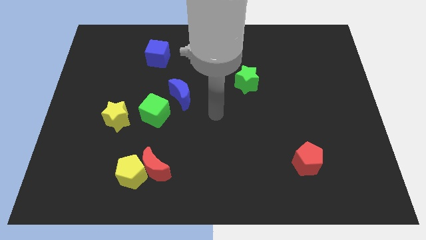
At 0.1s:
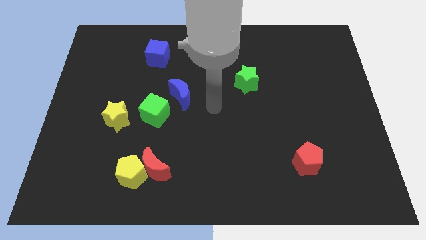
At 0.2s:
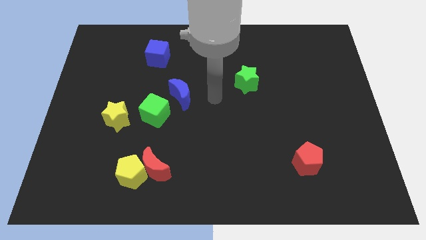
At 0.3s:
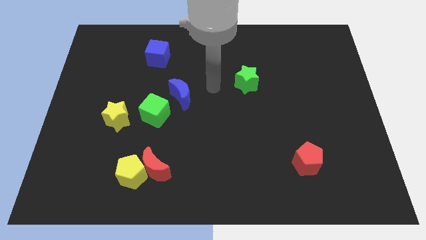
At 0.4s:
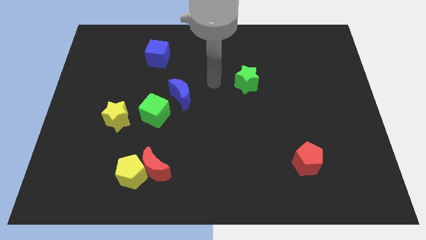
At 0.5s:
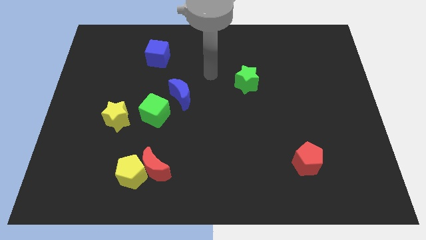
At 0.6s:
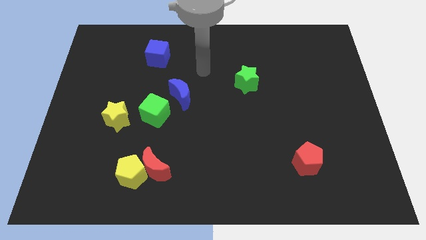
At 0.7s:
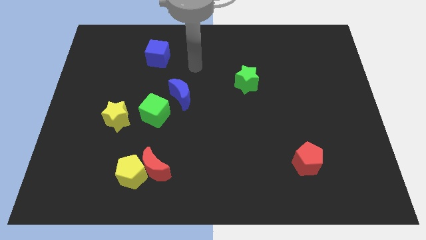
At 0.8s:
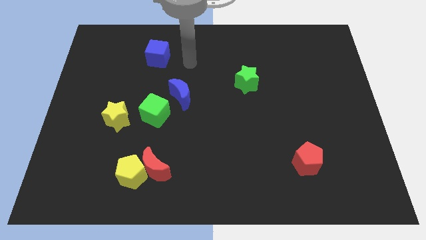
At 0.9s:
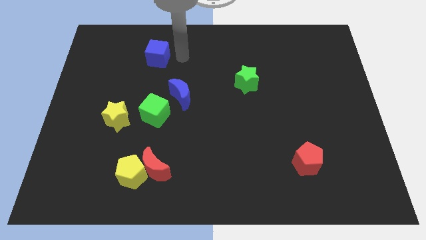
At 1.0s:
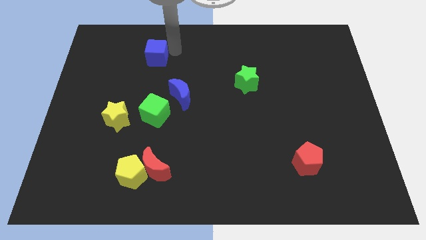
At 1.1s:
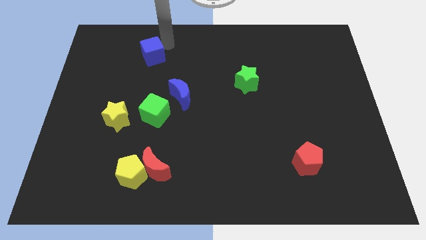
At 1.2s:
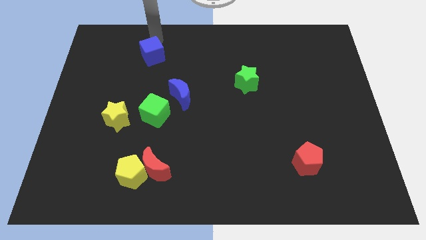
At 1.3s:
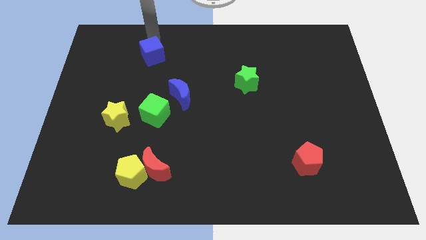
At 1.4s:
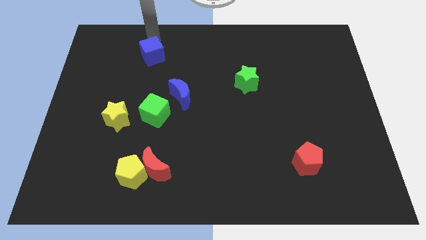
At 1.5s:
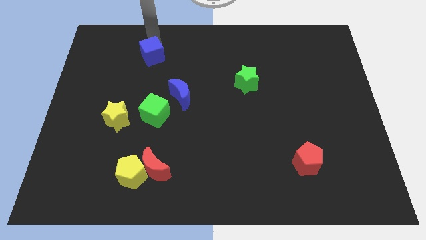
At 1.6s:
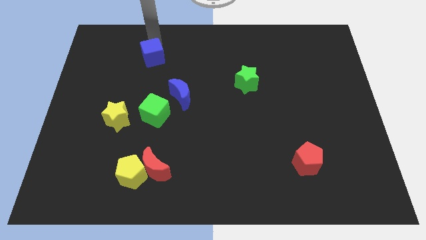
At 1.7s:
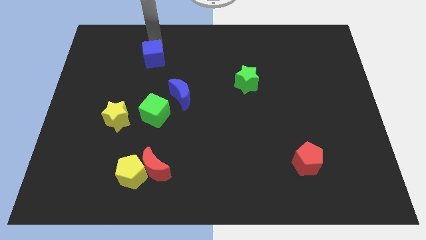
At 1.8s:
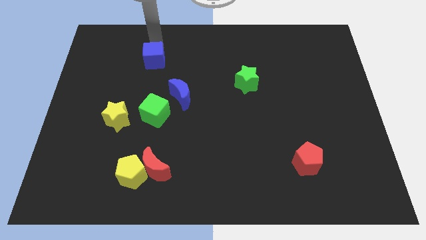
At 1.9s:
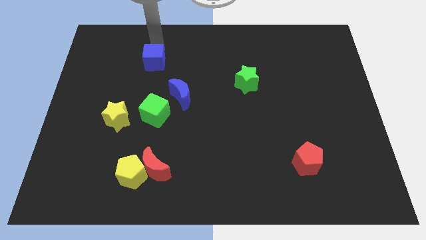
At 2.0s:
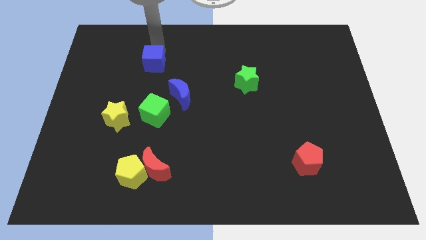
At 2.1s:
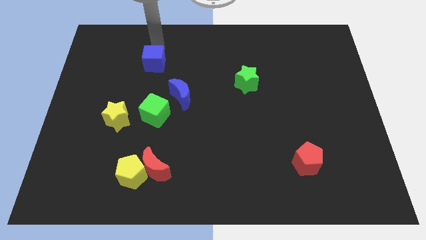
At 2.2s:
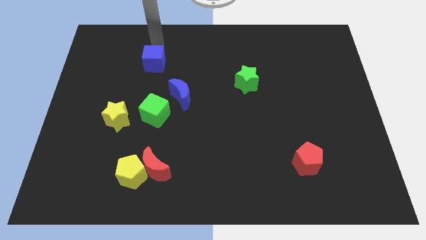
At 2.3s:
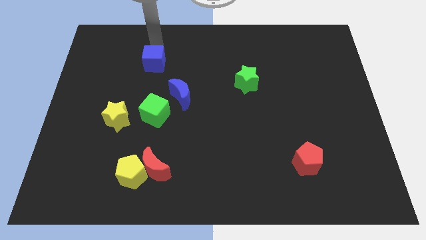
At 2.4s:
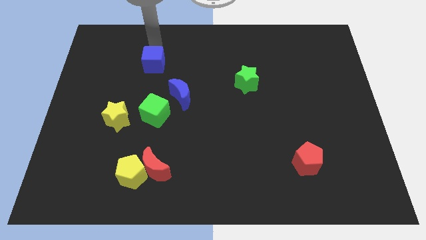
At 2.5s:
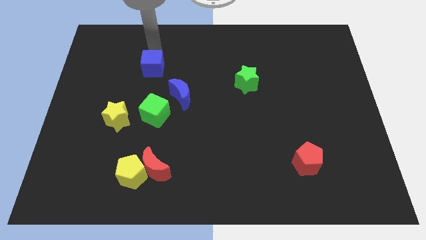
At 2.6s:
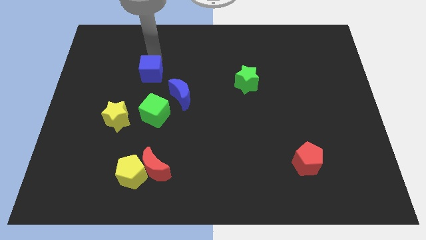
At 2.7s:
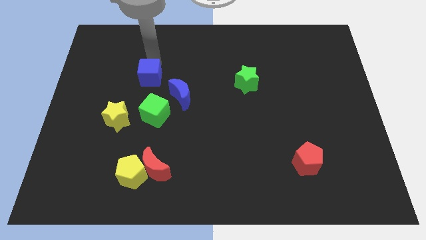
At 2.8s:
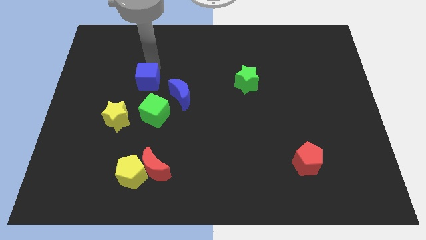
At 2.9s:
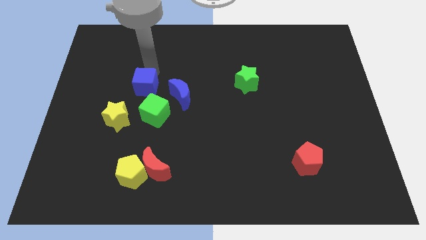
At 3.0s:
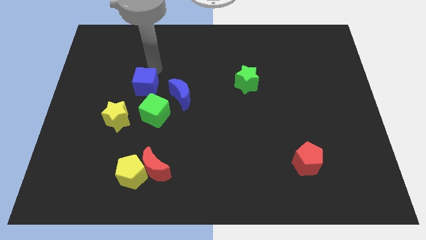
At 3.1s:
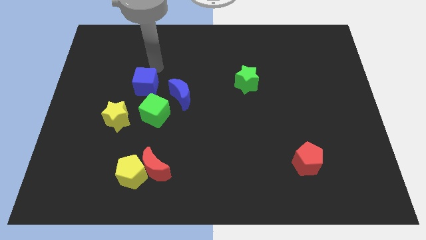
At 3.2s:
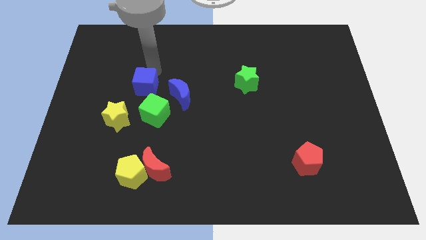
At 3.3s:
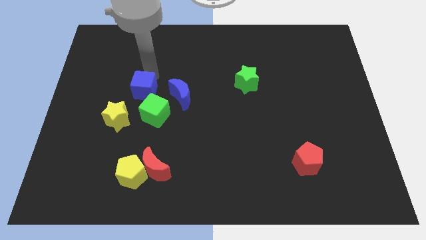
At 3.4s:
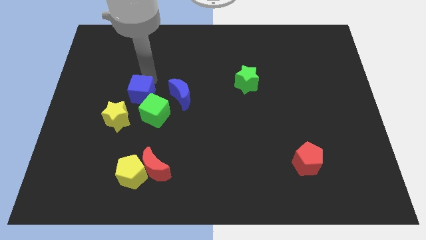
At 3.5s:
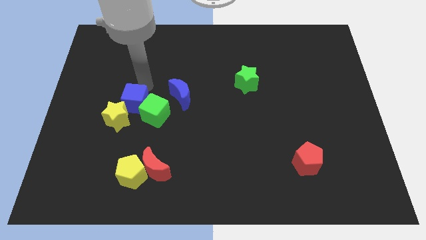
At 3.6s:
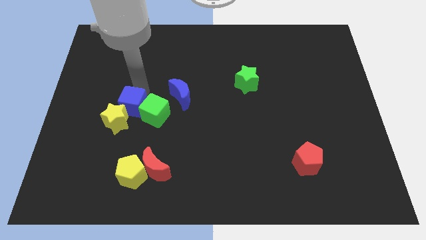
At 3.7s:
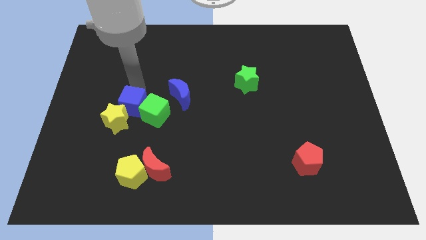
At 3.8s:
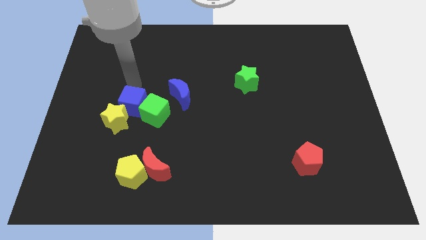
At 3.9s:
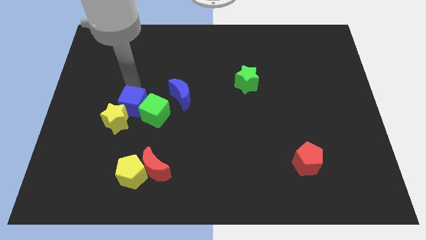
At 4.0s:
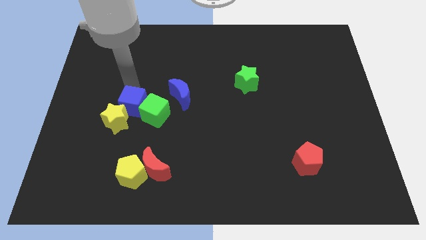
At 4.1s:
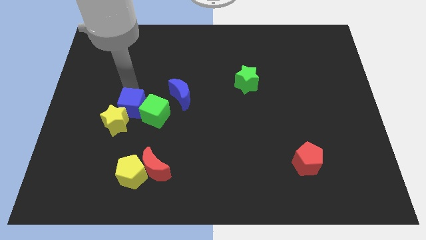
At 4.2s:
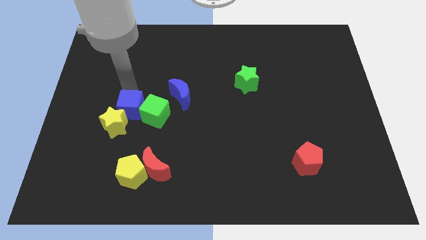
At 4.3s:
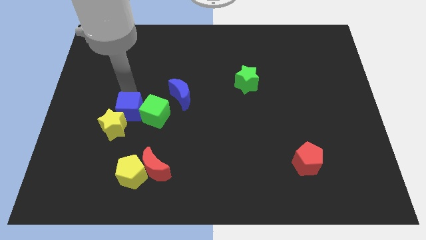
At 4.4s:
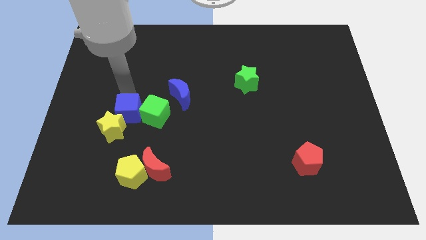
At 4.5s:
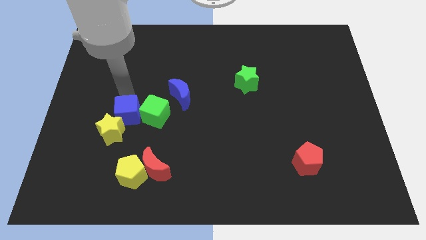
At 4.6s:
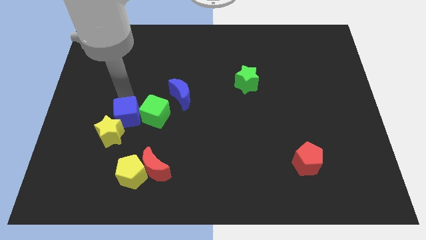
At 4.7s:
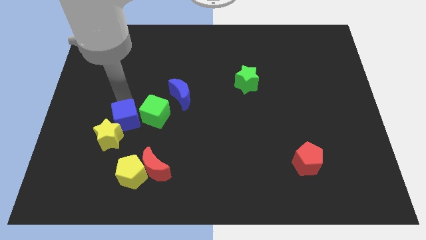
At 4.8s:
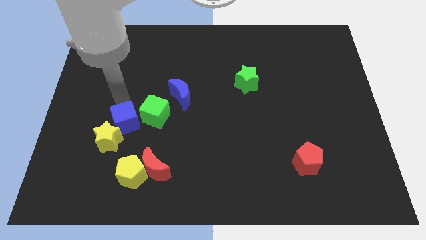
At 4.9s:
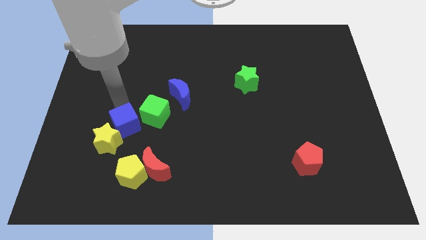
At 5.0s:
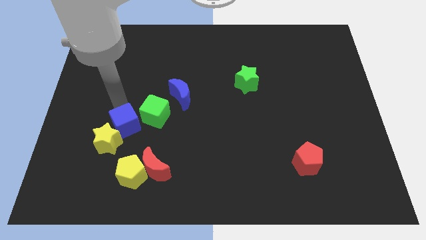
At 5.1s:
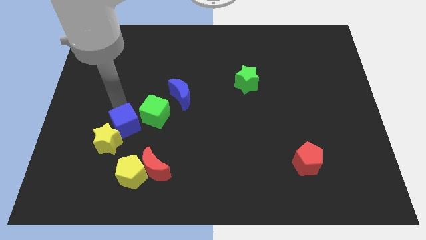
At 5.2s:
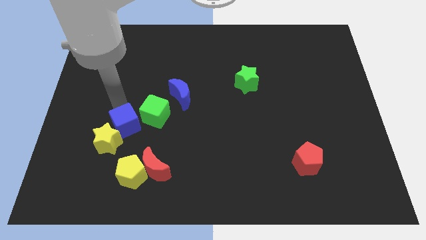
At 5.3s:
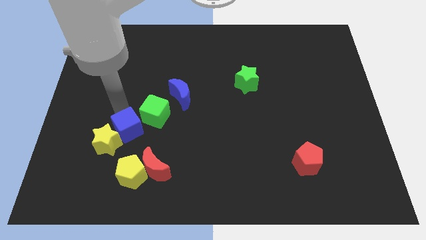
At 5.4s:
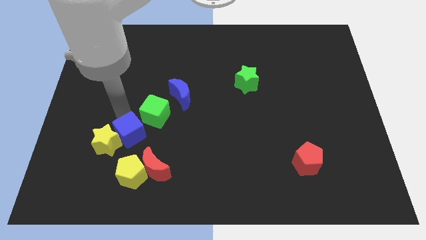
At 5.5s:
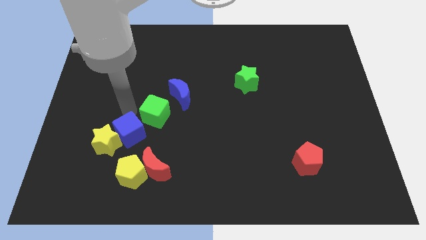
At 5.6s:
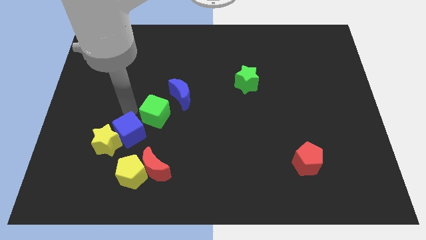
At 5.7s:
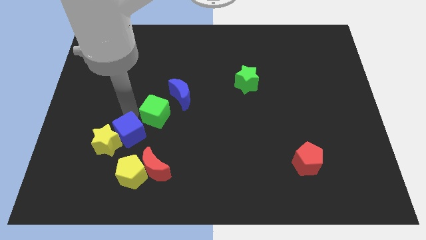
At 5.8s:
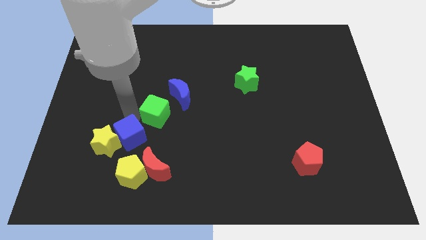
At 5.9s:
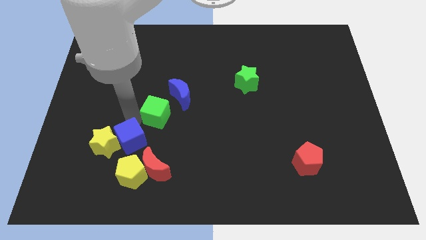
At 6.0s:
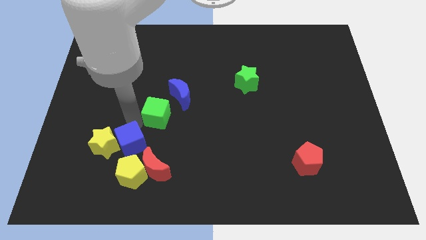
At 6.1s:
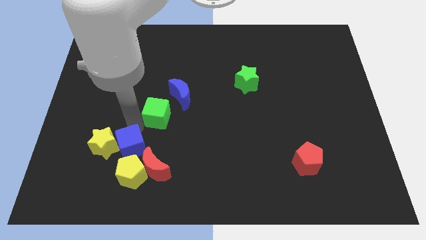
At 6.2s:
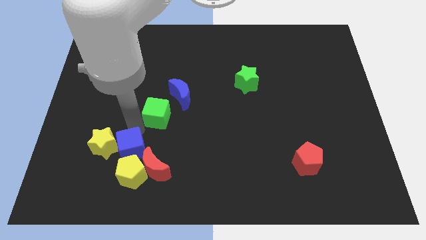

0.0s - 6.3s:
slide the blue cube to the yellow pentagon

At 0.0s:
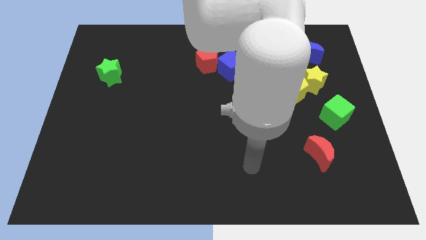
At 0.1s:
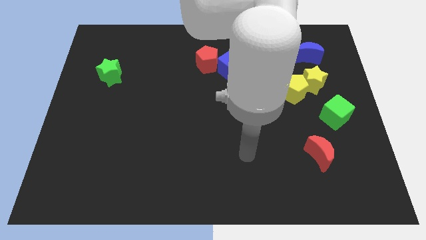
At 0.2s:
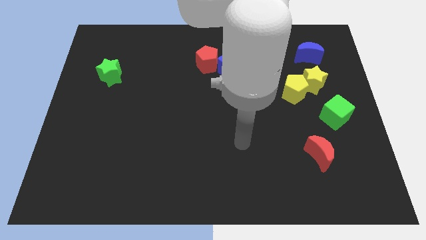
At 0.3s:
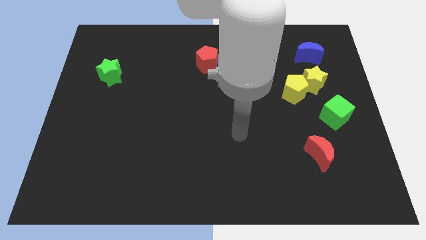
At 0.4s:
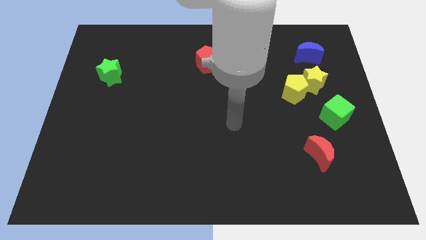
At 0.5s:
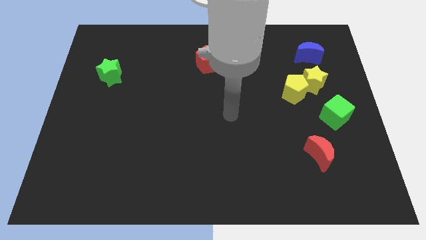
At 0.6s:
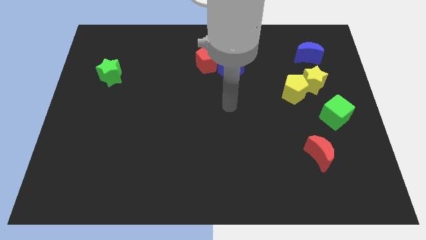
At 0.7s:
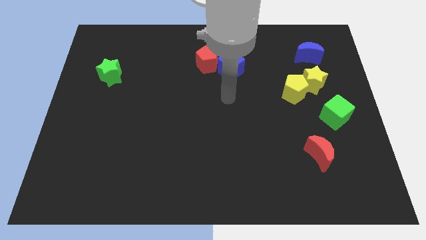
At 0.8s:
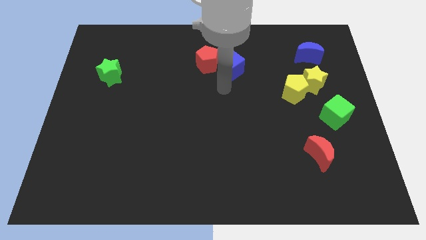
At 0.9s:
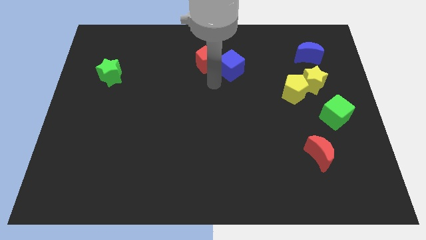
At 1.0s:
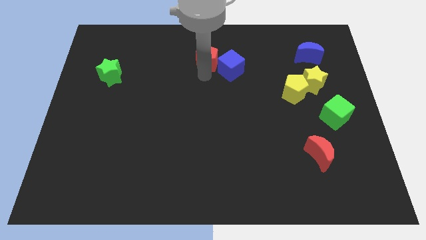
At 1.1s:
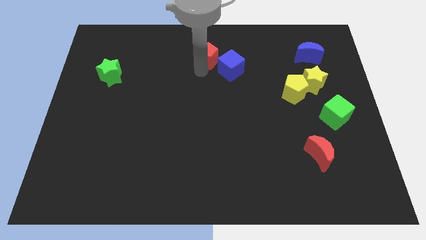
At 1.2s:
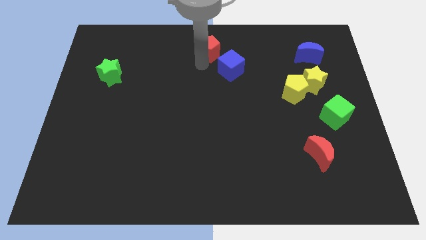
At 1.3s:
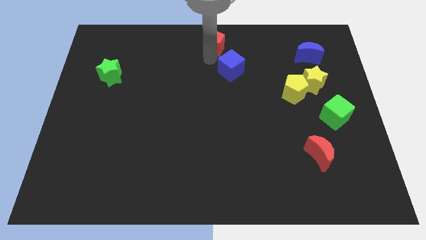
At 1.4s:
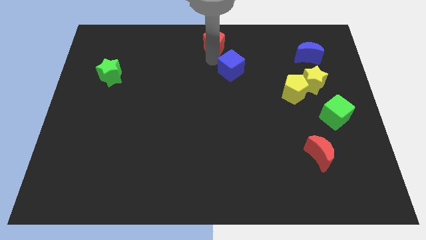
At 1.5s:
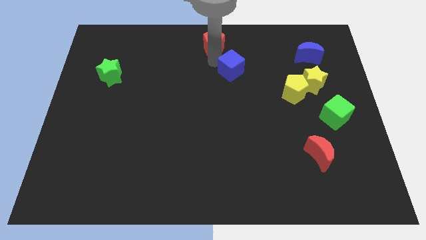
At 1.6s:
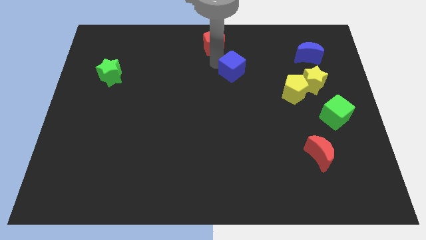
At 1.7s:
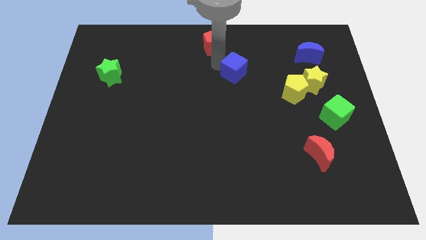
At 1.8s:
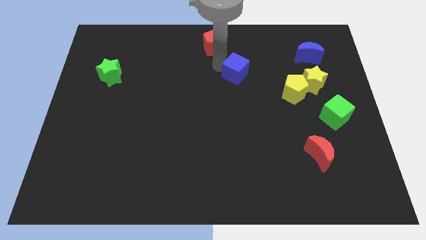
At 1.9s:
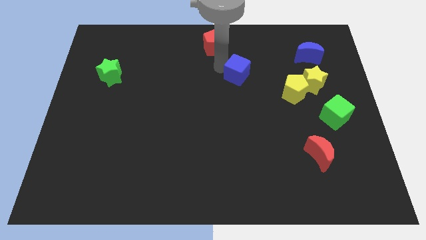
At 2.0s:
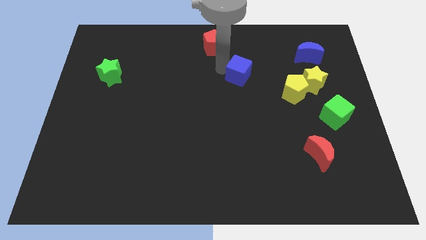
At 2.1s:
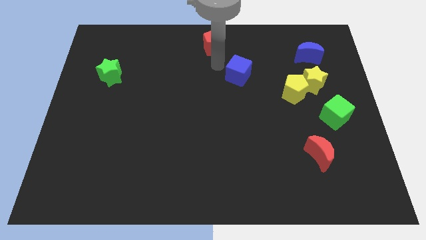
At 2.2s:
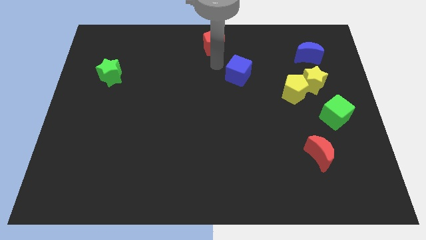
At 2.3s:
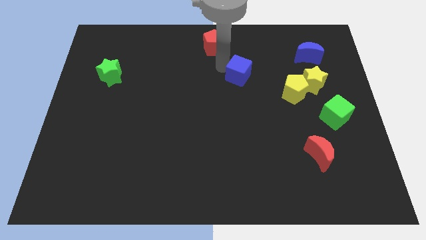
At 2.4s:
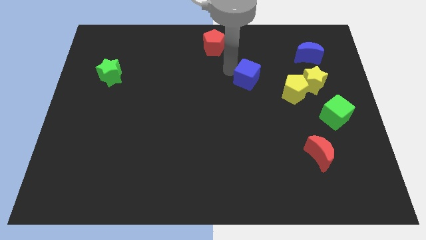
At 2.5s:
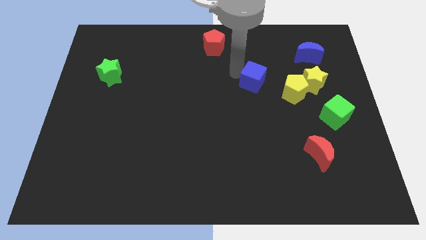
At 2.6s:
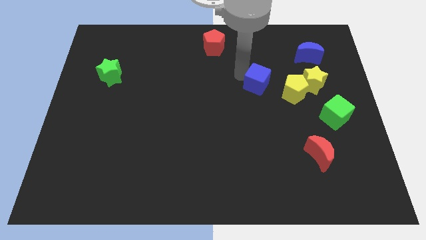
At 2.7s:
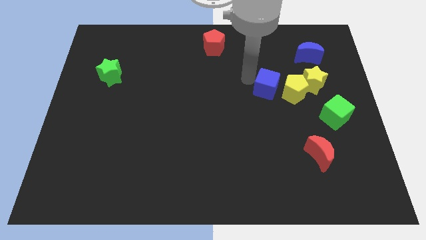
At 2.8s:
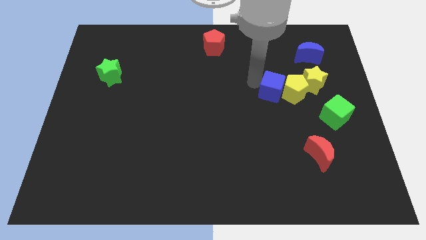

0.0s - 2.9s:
move the blue cube close to the yellow pentagon
